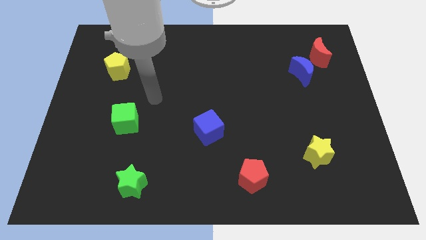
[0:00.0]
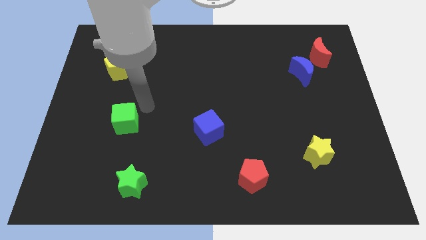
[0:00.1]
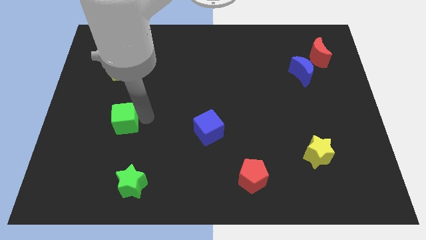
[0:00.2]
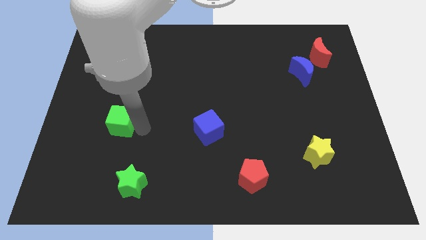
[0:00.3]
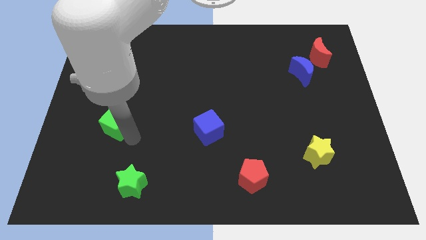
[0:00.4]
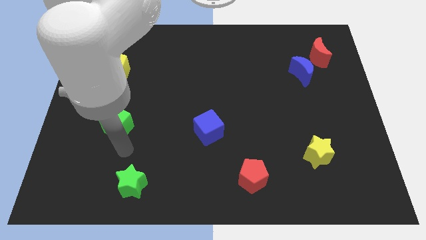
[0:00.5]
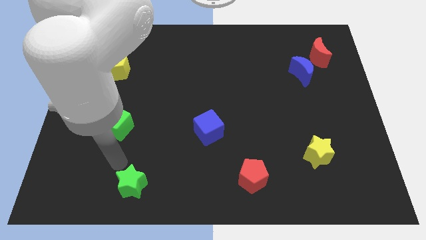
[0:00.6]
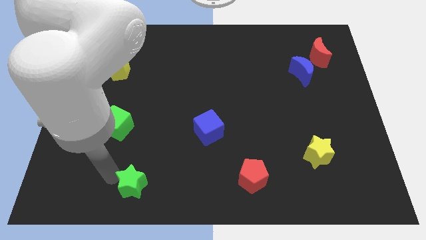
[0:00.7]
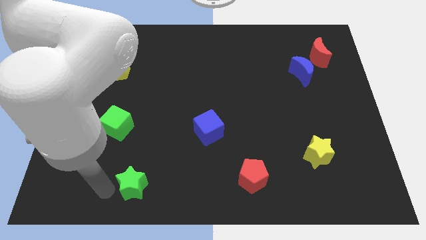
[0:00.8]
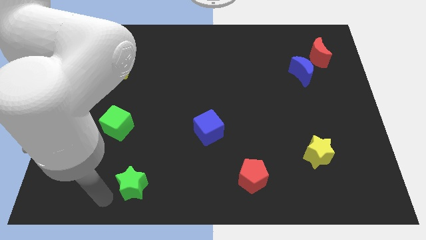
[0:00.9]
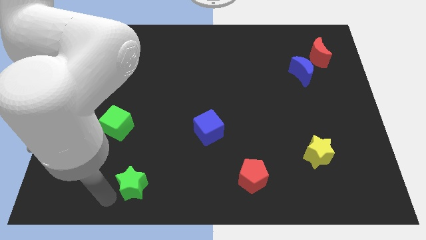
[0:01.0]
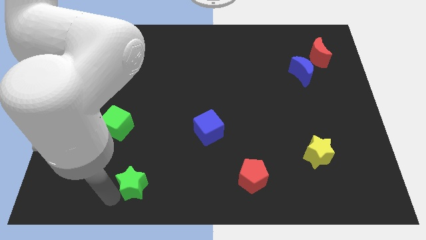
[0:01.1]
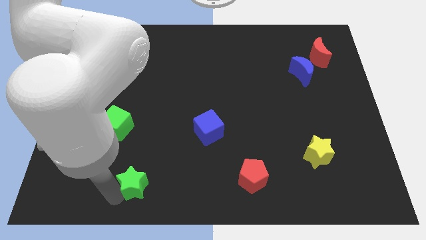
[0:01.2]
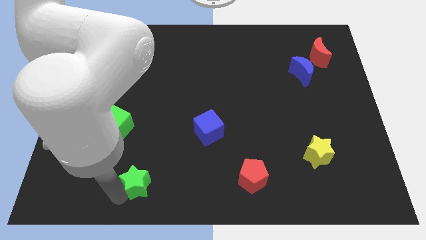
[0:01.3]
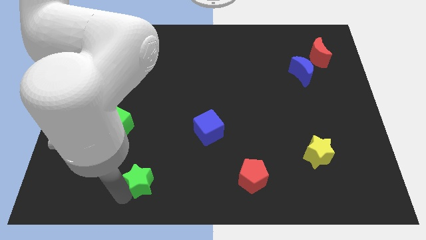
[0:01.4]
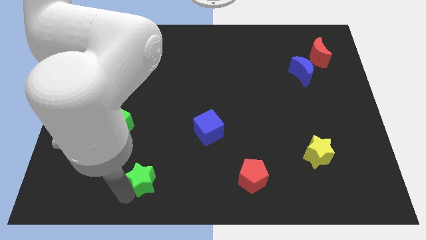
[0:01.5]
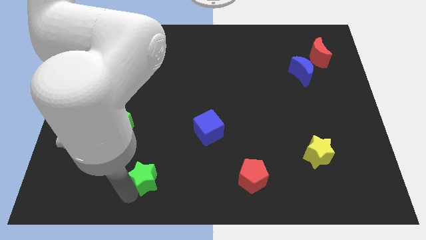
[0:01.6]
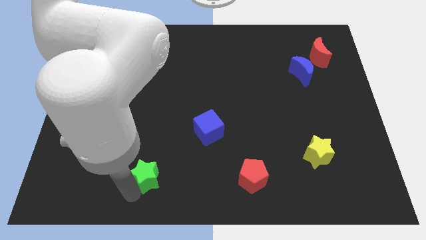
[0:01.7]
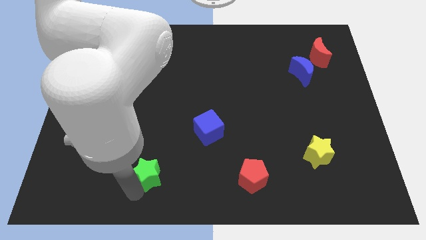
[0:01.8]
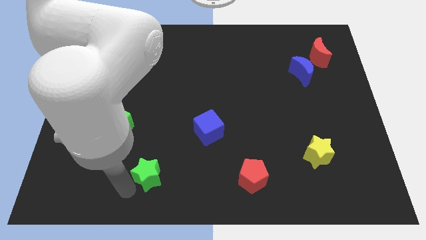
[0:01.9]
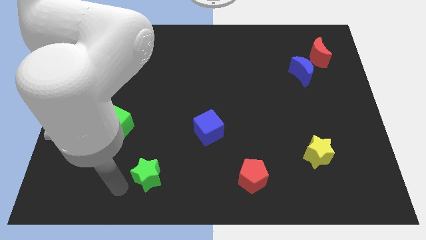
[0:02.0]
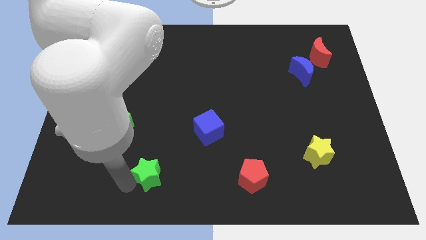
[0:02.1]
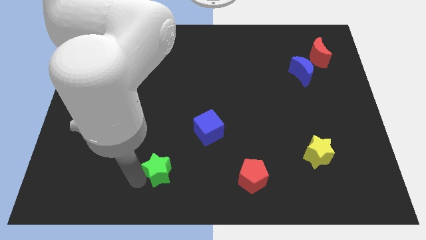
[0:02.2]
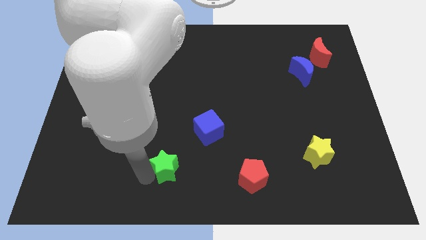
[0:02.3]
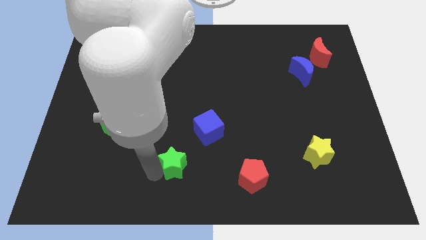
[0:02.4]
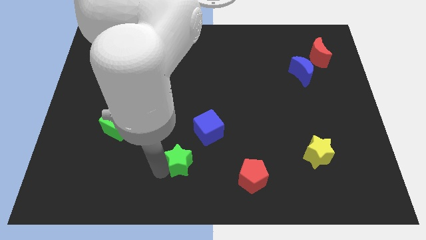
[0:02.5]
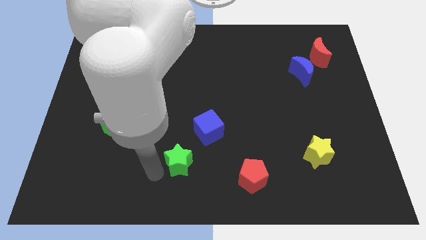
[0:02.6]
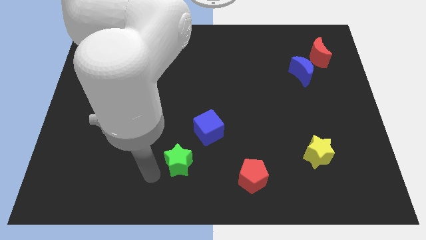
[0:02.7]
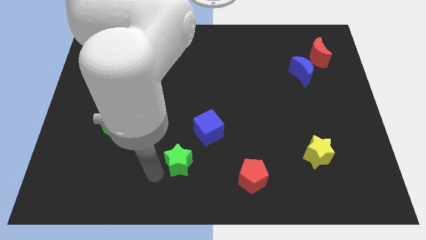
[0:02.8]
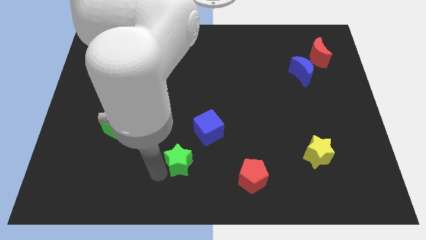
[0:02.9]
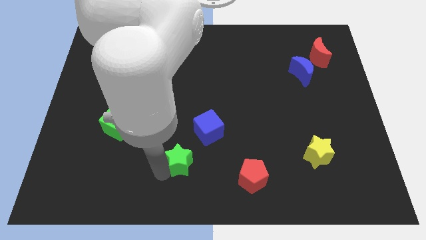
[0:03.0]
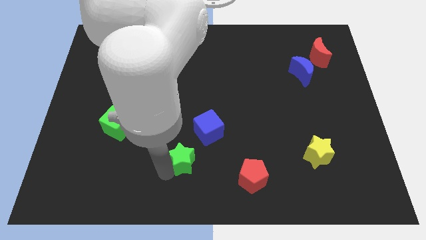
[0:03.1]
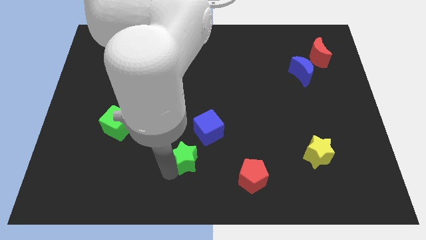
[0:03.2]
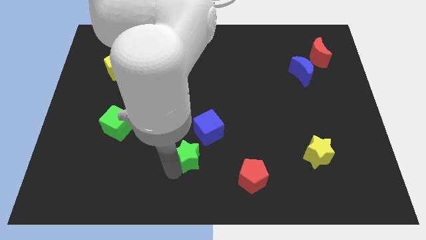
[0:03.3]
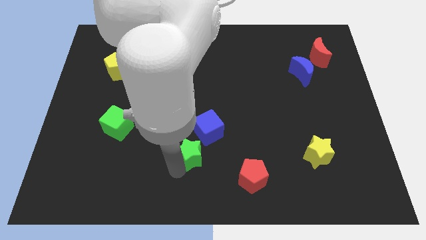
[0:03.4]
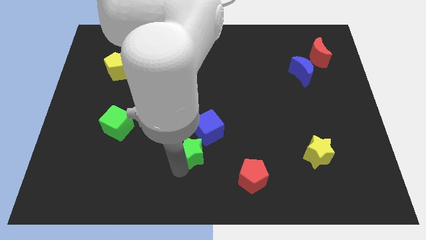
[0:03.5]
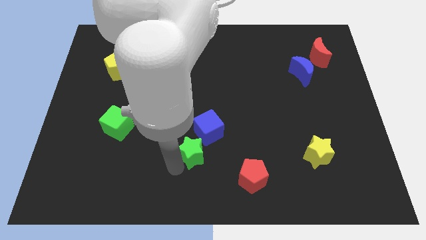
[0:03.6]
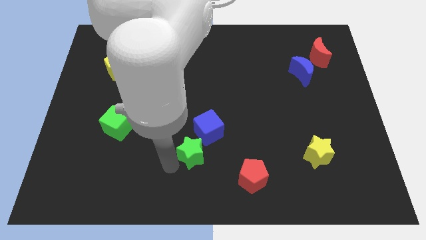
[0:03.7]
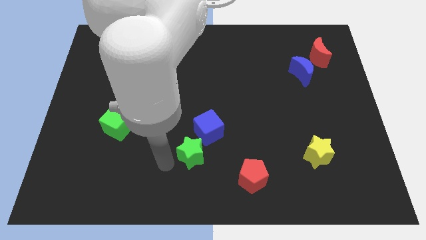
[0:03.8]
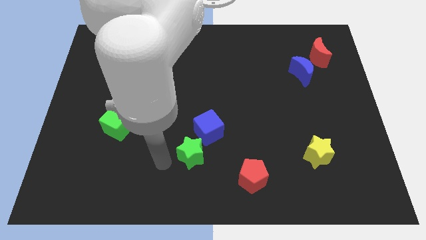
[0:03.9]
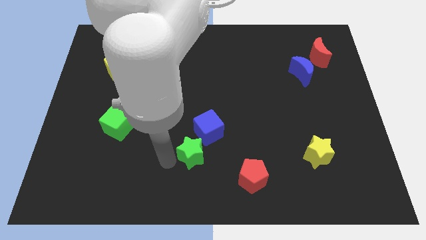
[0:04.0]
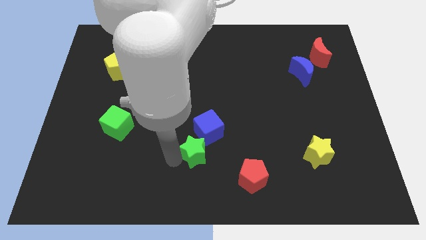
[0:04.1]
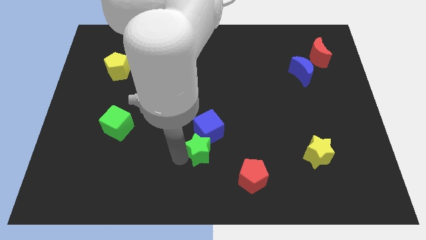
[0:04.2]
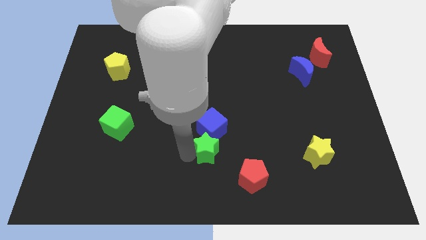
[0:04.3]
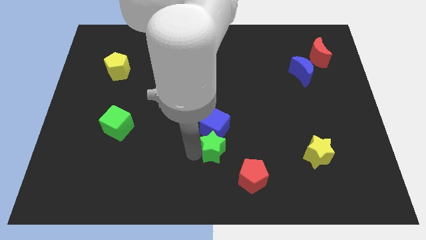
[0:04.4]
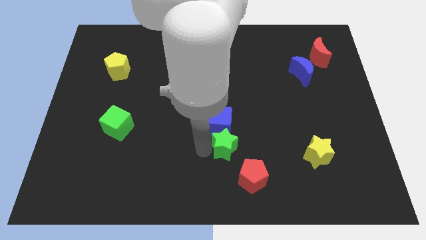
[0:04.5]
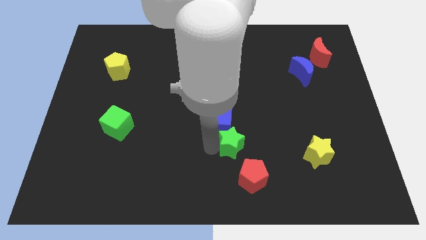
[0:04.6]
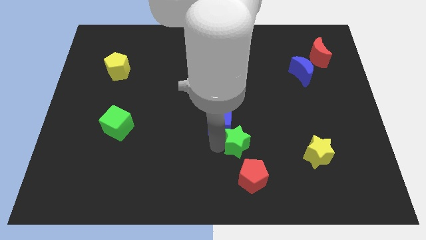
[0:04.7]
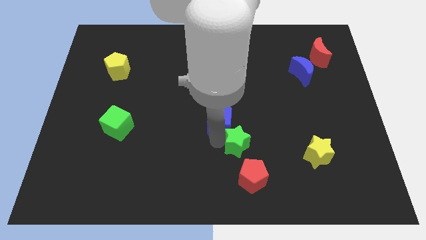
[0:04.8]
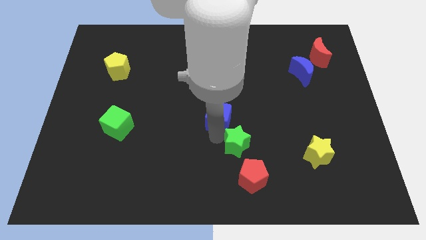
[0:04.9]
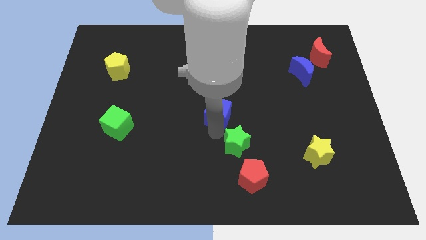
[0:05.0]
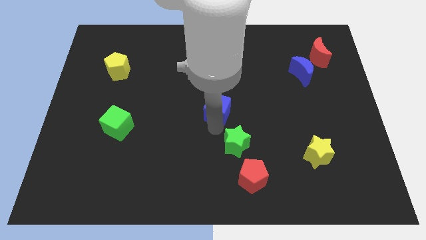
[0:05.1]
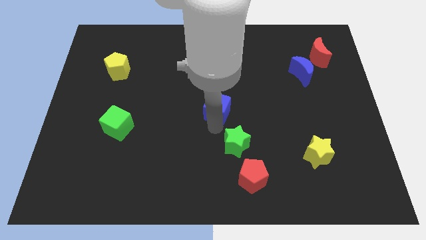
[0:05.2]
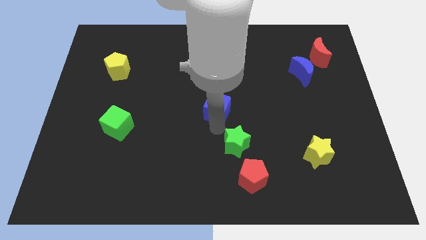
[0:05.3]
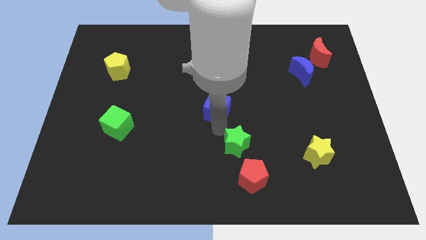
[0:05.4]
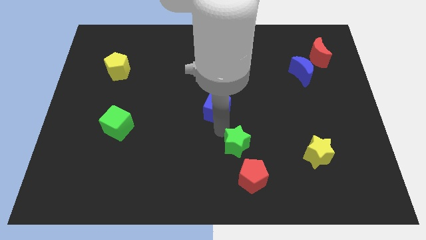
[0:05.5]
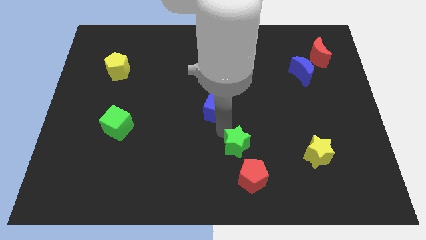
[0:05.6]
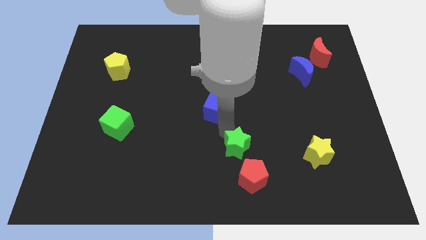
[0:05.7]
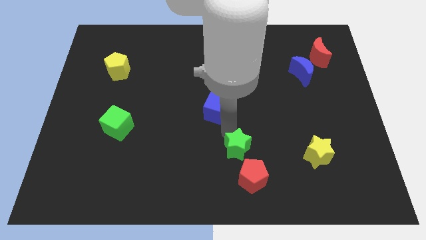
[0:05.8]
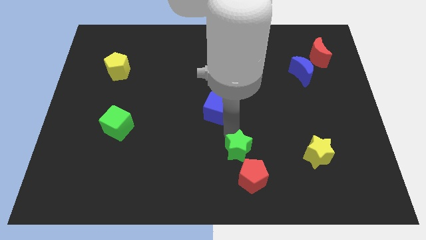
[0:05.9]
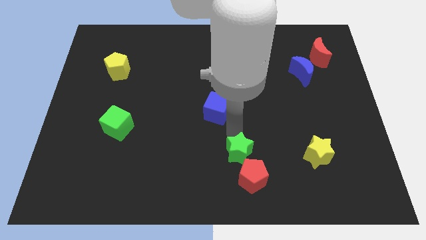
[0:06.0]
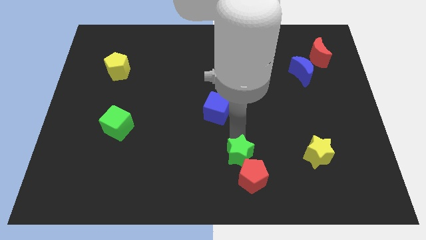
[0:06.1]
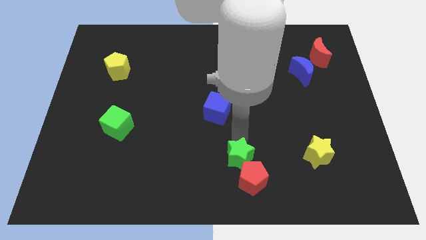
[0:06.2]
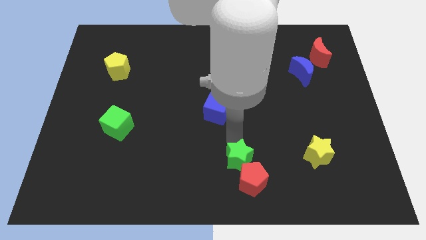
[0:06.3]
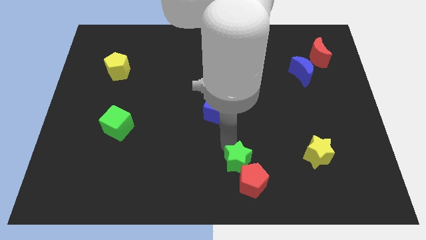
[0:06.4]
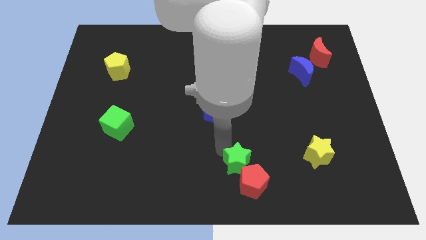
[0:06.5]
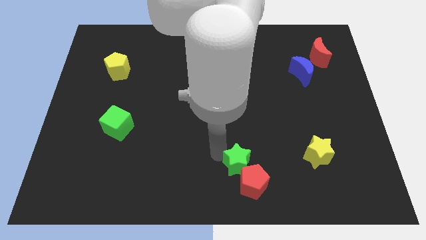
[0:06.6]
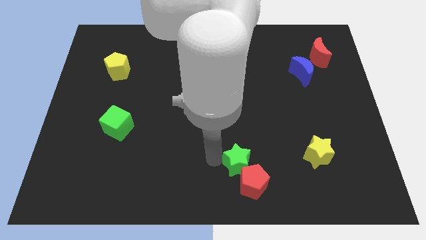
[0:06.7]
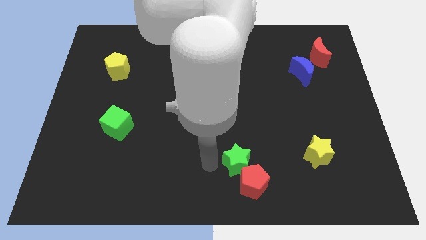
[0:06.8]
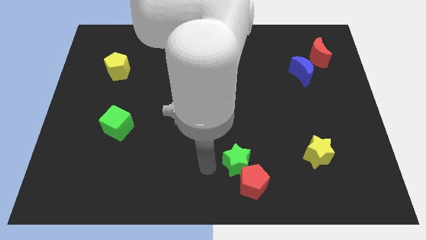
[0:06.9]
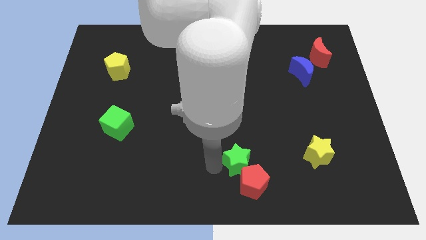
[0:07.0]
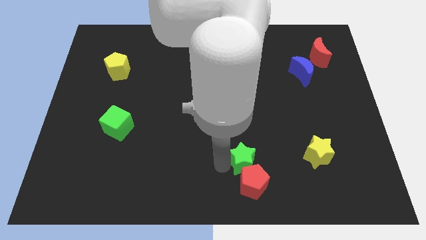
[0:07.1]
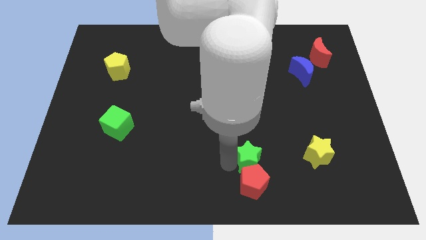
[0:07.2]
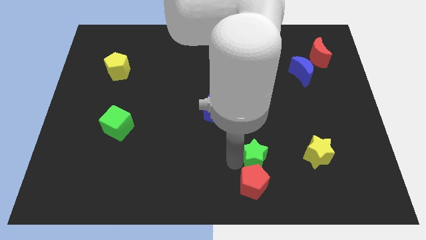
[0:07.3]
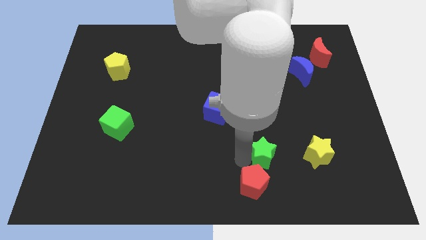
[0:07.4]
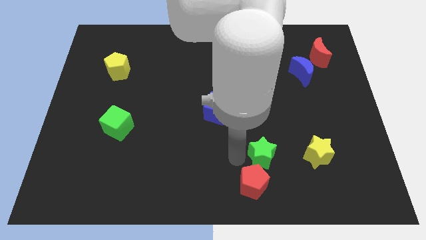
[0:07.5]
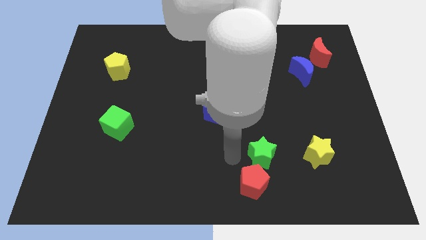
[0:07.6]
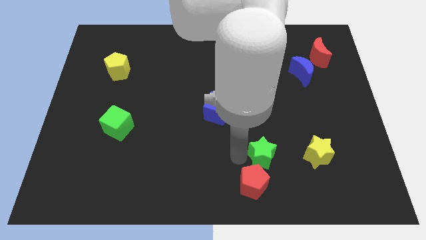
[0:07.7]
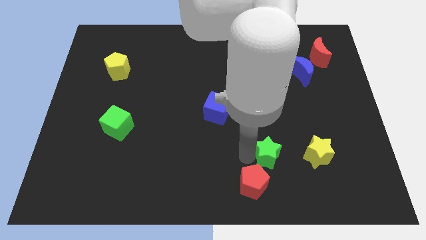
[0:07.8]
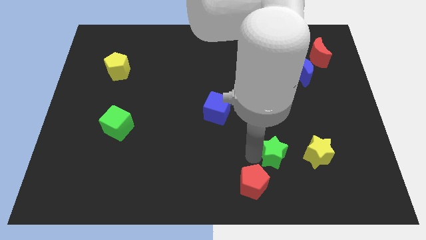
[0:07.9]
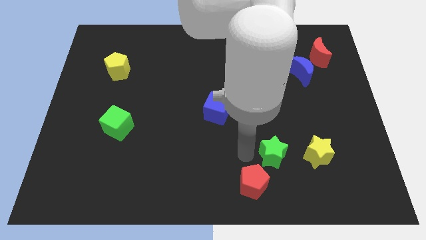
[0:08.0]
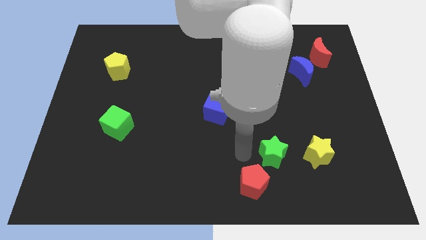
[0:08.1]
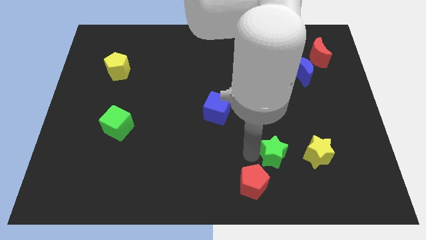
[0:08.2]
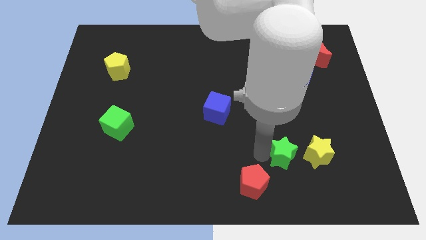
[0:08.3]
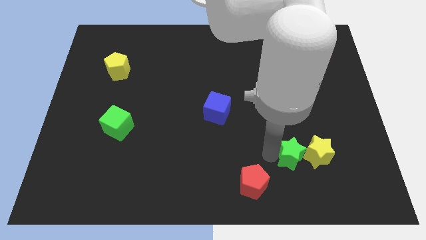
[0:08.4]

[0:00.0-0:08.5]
put the green star towards the yellow star
